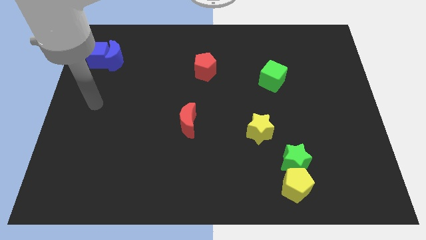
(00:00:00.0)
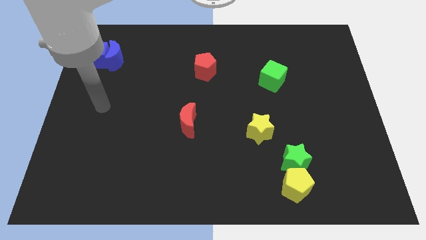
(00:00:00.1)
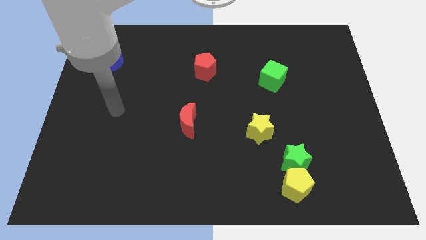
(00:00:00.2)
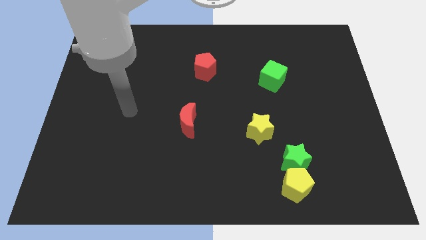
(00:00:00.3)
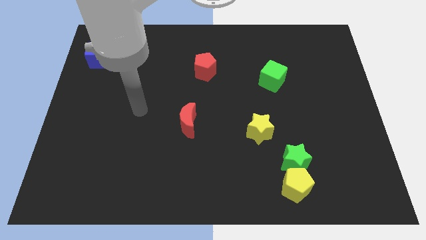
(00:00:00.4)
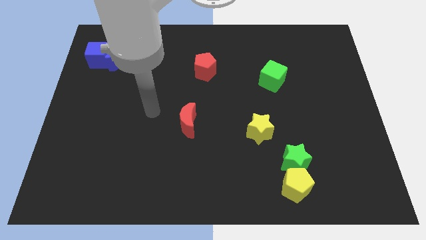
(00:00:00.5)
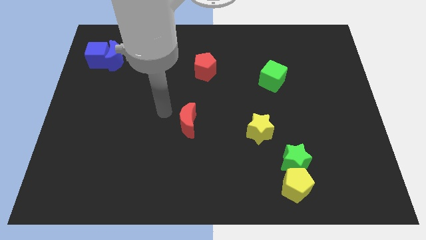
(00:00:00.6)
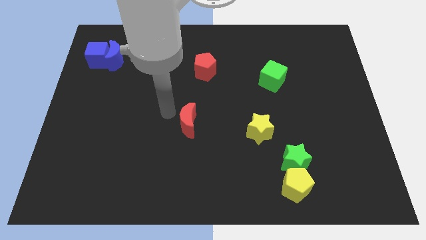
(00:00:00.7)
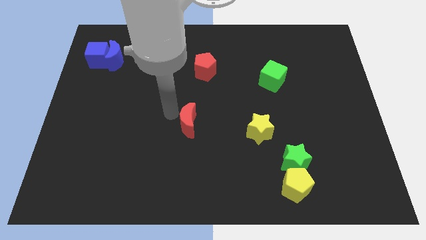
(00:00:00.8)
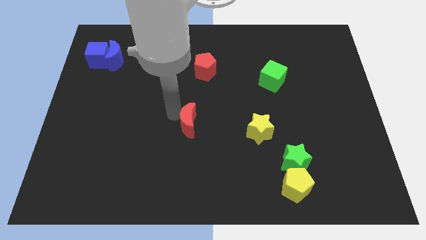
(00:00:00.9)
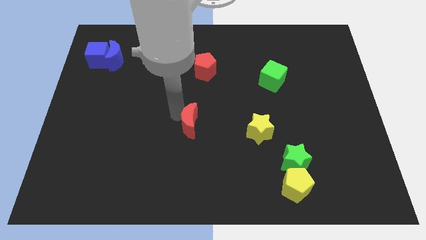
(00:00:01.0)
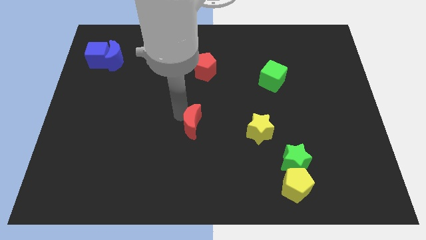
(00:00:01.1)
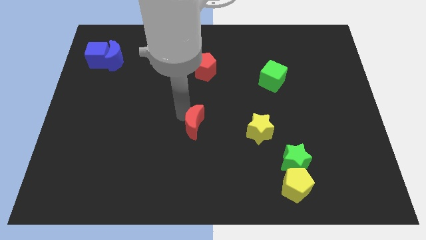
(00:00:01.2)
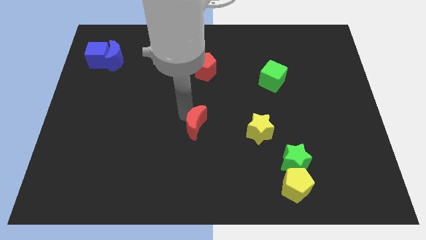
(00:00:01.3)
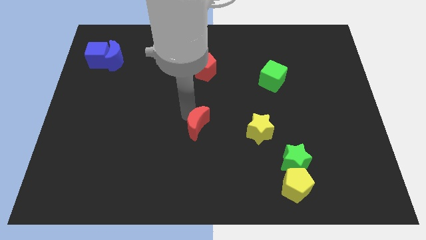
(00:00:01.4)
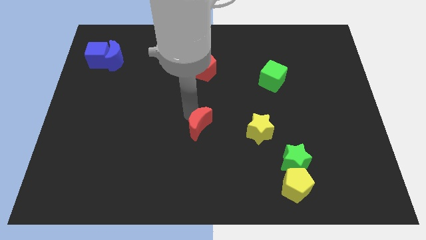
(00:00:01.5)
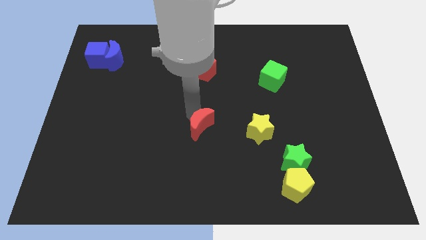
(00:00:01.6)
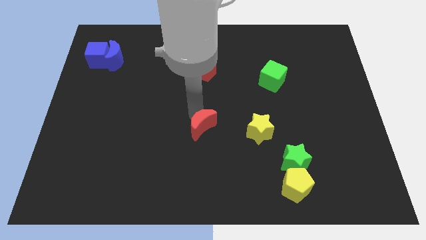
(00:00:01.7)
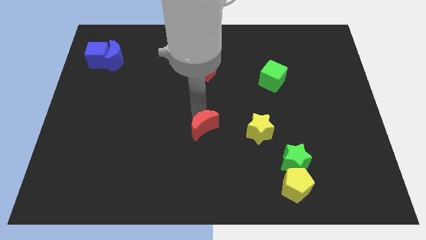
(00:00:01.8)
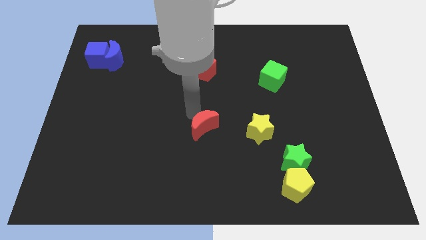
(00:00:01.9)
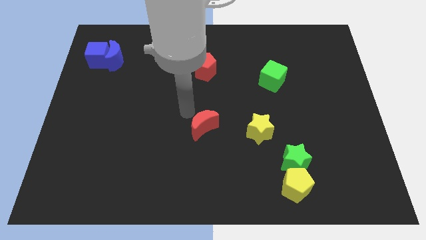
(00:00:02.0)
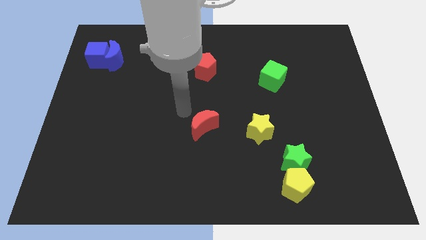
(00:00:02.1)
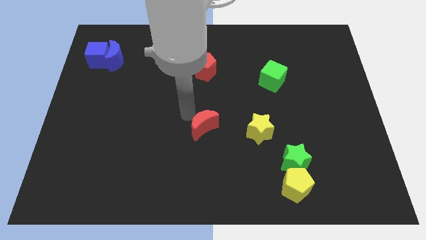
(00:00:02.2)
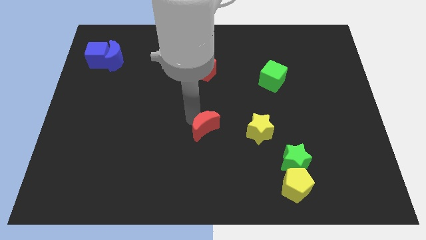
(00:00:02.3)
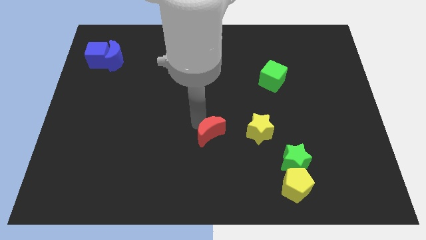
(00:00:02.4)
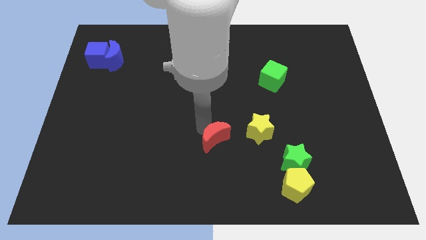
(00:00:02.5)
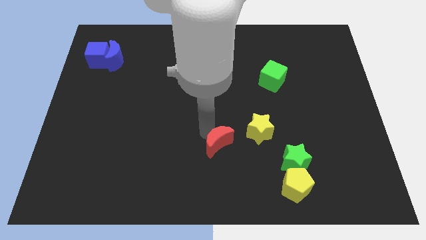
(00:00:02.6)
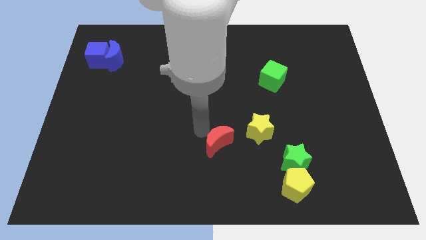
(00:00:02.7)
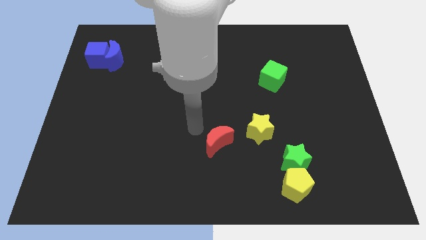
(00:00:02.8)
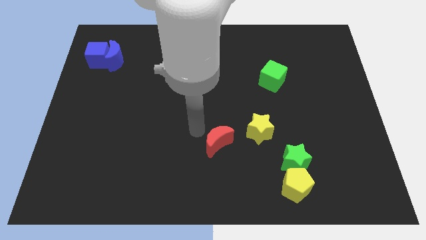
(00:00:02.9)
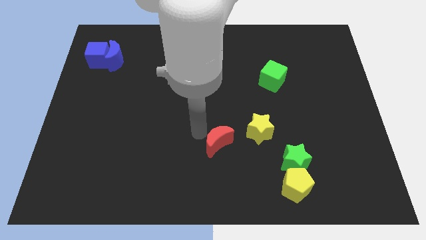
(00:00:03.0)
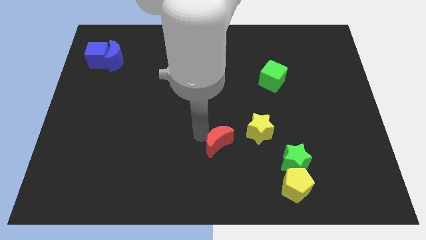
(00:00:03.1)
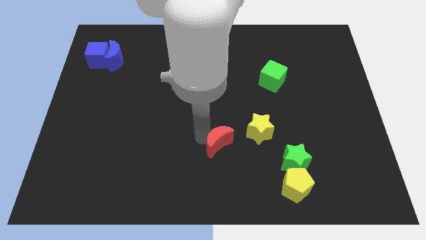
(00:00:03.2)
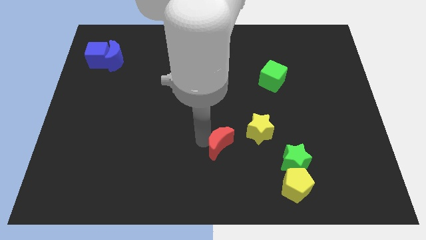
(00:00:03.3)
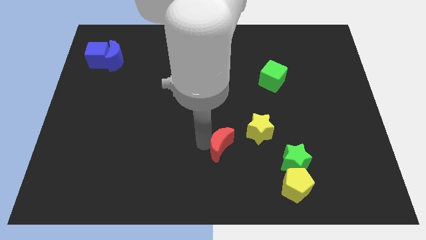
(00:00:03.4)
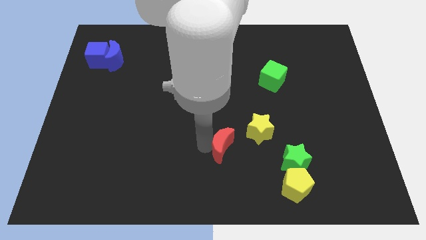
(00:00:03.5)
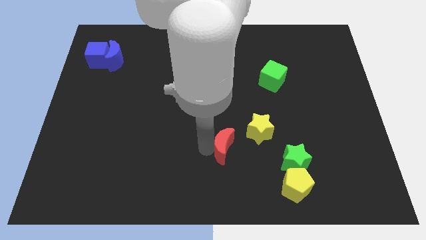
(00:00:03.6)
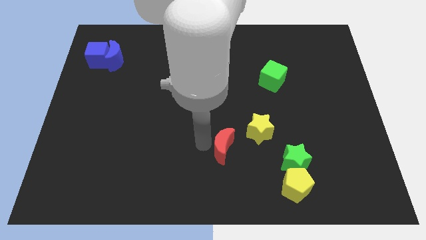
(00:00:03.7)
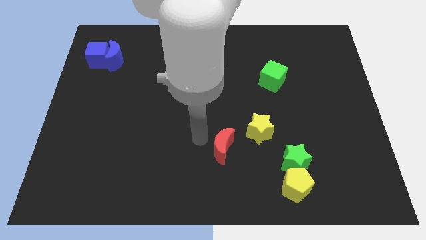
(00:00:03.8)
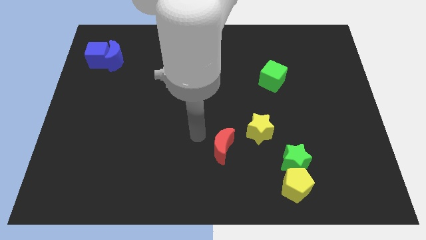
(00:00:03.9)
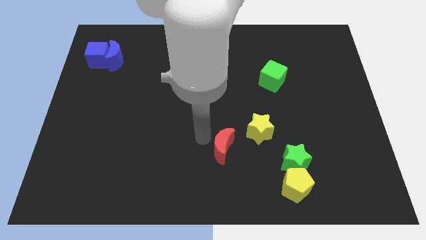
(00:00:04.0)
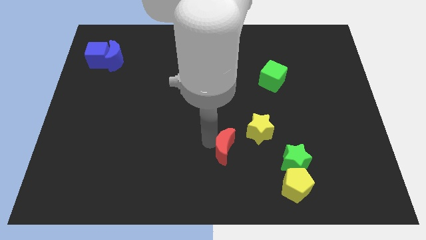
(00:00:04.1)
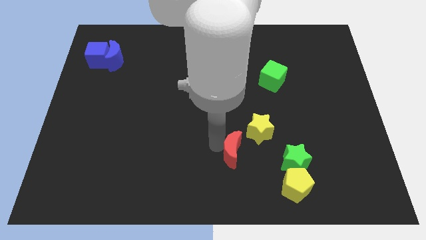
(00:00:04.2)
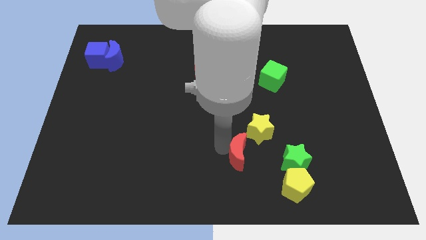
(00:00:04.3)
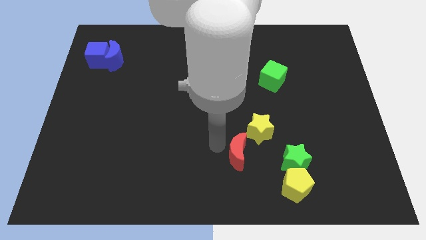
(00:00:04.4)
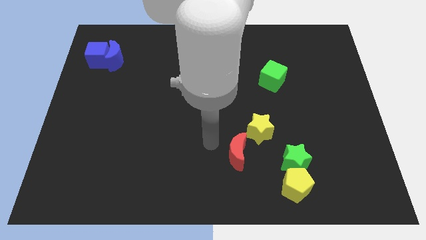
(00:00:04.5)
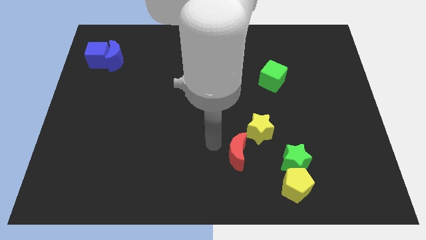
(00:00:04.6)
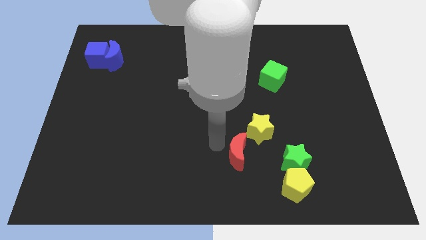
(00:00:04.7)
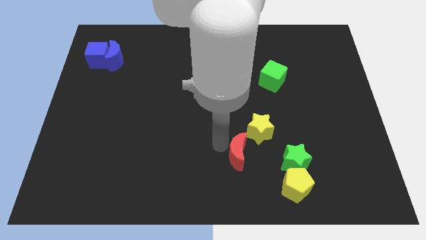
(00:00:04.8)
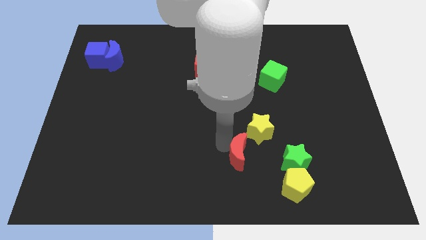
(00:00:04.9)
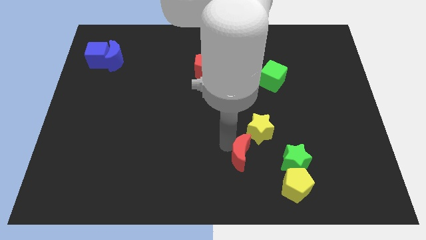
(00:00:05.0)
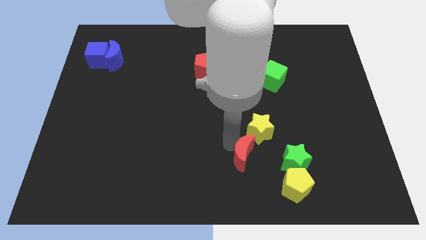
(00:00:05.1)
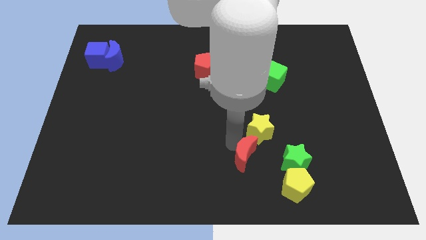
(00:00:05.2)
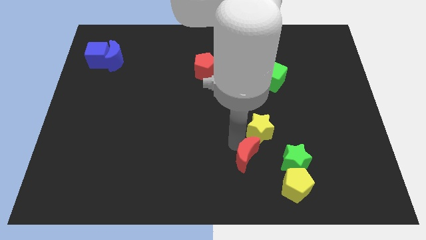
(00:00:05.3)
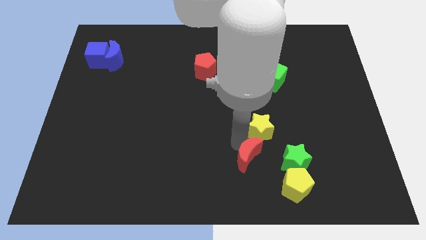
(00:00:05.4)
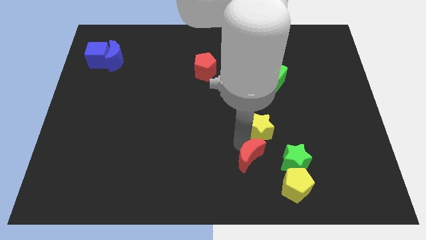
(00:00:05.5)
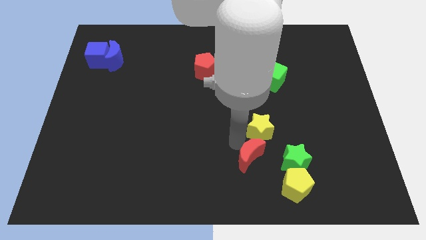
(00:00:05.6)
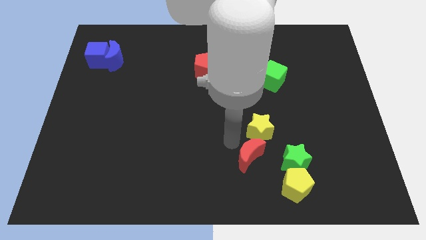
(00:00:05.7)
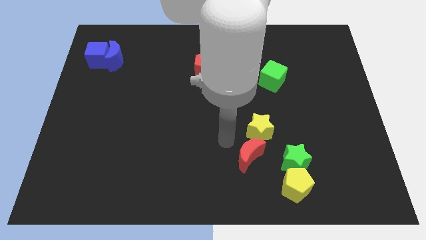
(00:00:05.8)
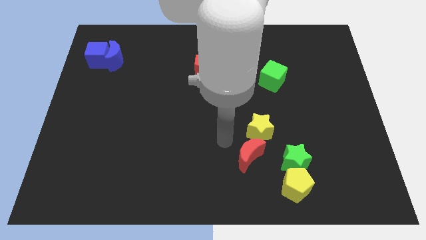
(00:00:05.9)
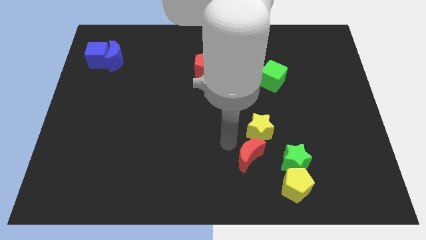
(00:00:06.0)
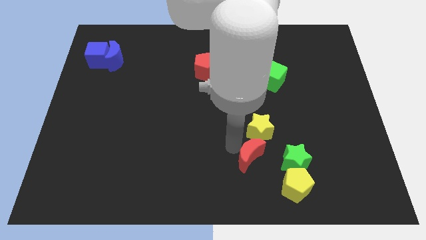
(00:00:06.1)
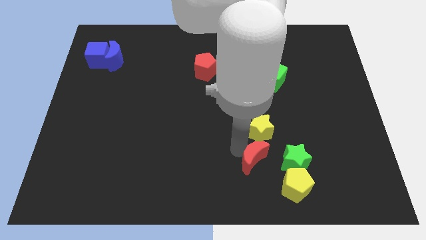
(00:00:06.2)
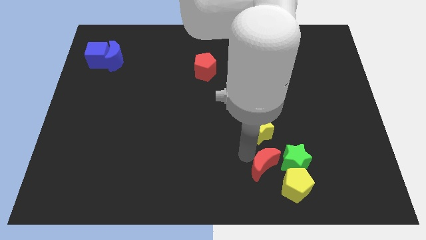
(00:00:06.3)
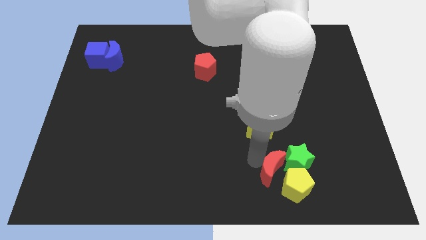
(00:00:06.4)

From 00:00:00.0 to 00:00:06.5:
put the red moon towards the yellow pentagon

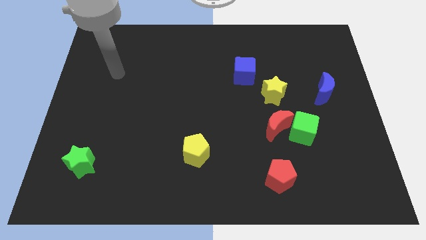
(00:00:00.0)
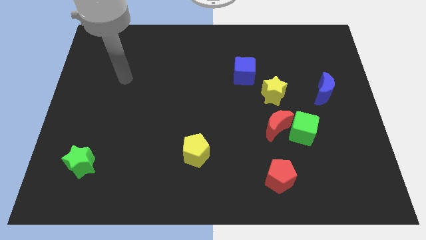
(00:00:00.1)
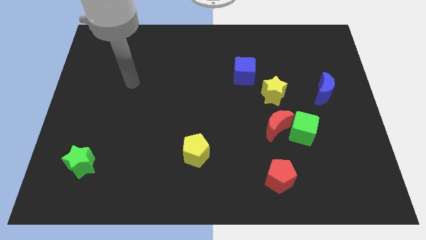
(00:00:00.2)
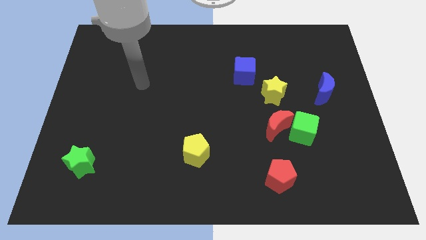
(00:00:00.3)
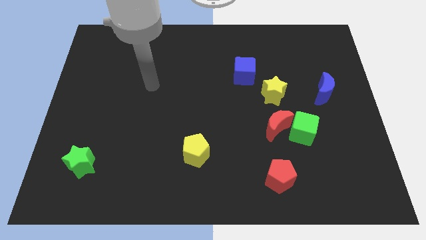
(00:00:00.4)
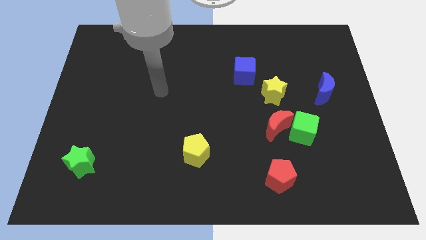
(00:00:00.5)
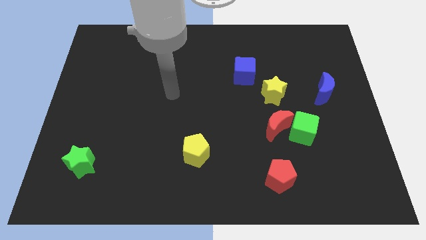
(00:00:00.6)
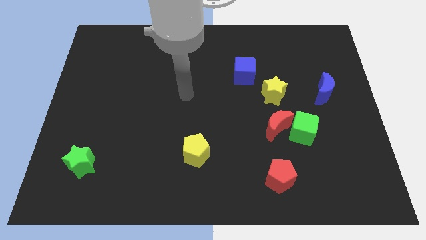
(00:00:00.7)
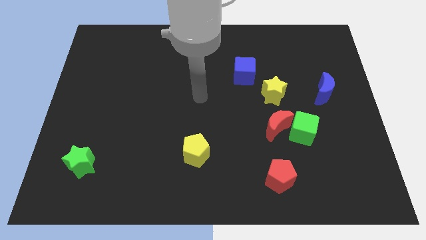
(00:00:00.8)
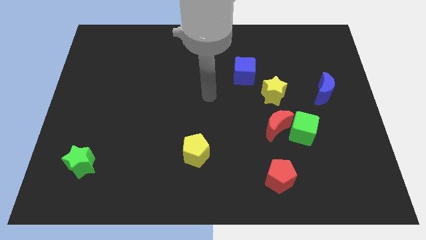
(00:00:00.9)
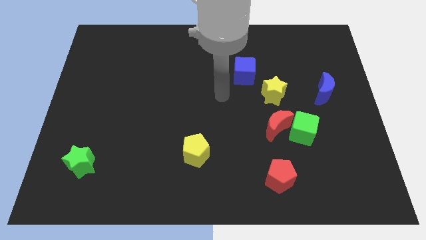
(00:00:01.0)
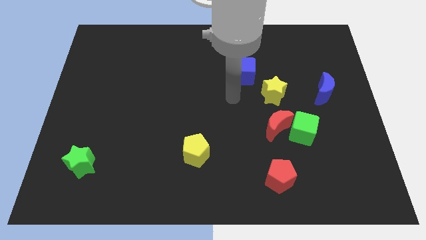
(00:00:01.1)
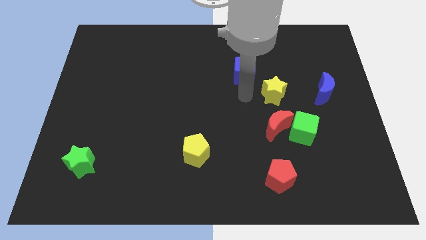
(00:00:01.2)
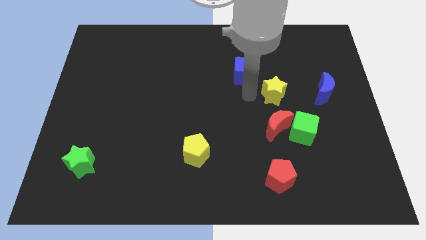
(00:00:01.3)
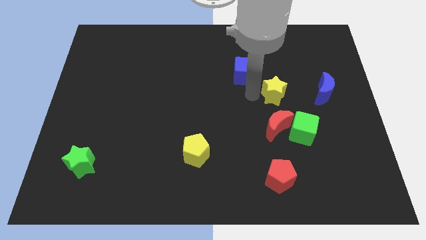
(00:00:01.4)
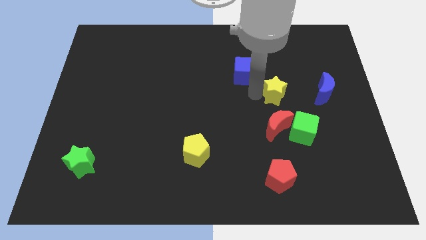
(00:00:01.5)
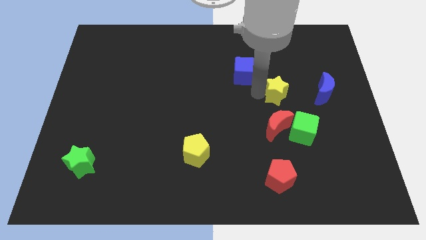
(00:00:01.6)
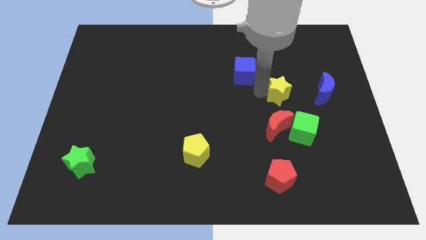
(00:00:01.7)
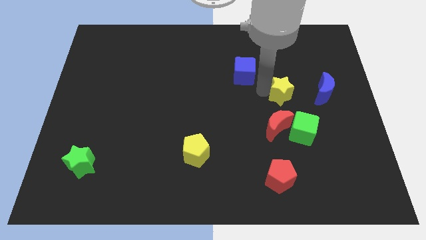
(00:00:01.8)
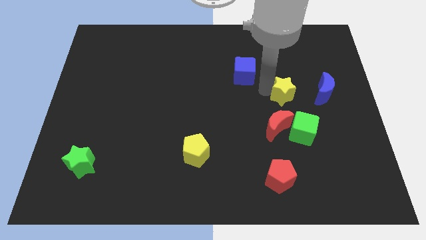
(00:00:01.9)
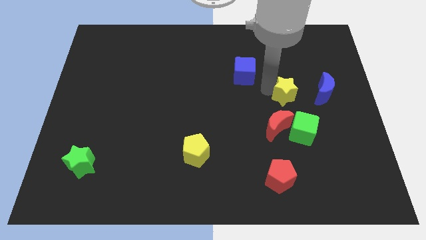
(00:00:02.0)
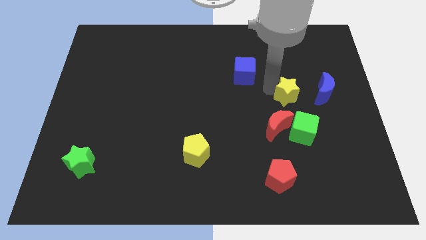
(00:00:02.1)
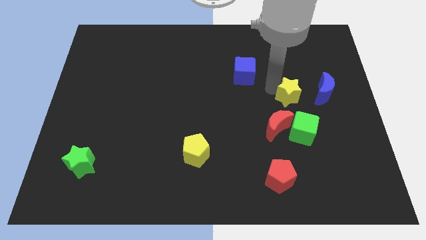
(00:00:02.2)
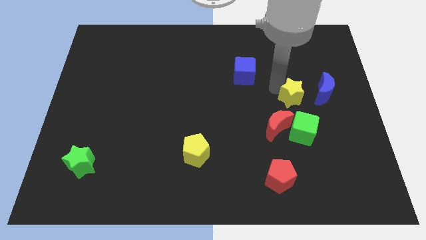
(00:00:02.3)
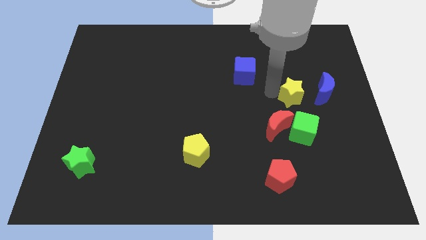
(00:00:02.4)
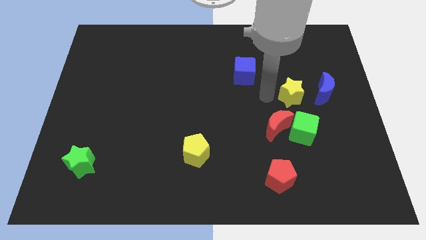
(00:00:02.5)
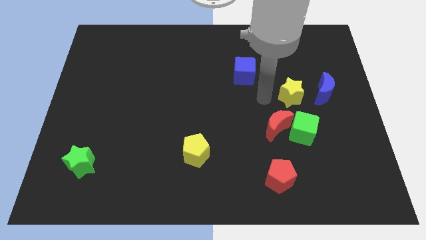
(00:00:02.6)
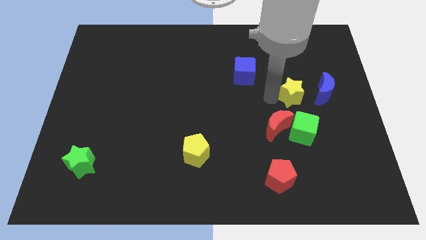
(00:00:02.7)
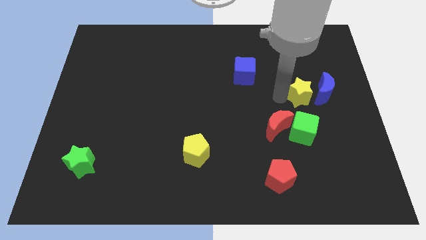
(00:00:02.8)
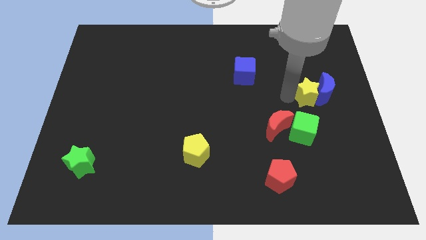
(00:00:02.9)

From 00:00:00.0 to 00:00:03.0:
move the yellow star close to the blue moon
